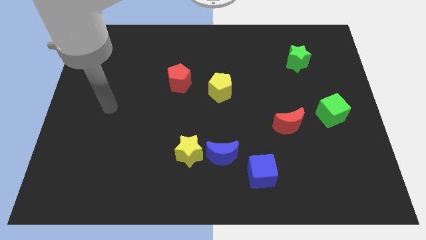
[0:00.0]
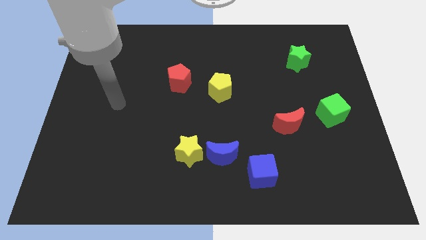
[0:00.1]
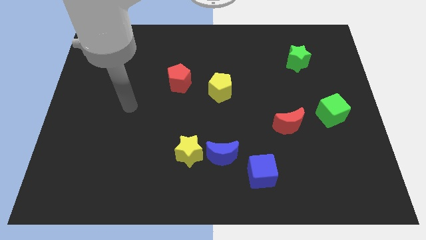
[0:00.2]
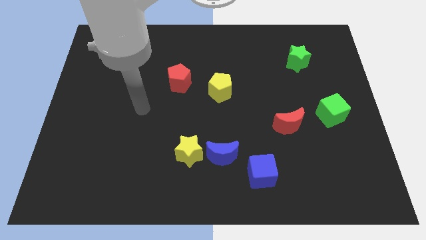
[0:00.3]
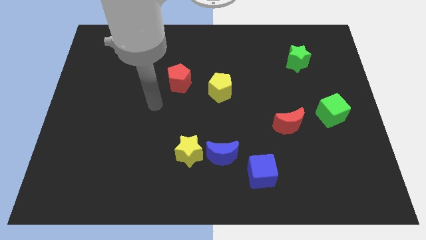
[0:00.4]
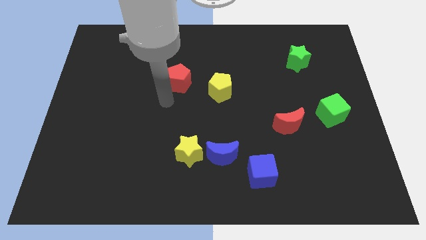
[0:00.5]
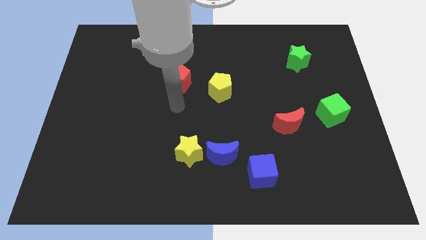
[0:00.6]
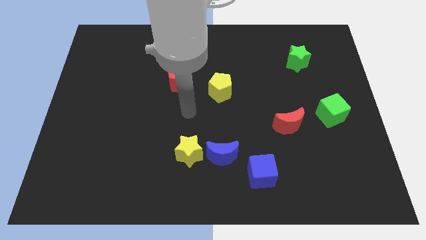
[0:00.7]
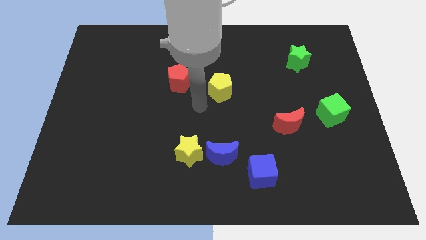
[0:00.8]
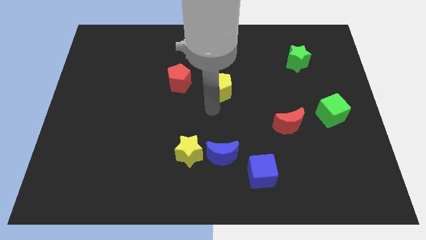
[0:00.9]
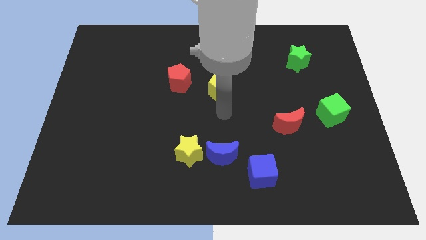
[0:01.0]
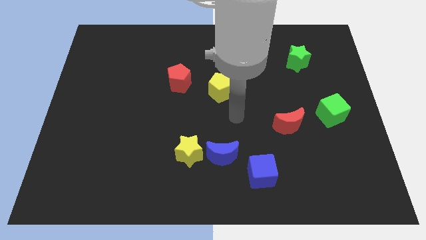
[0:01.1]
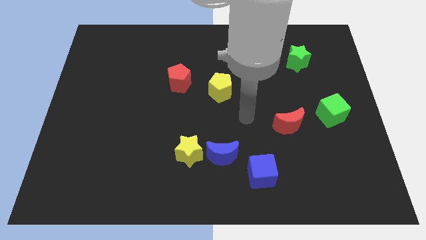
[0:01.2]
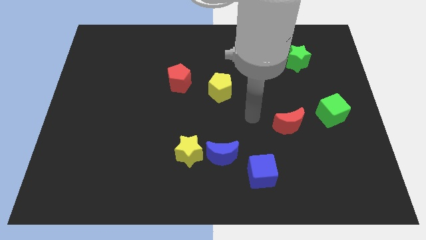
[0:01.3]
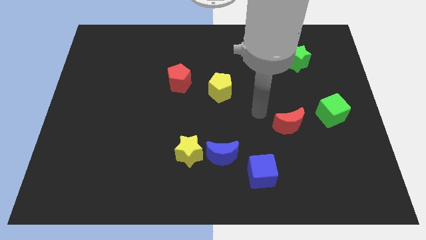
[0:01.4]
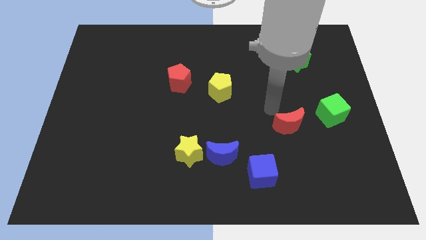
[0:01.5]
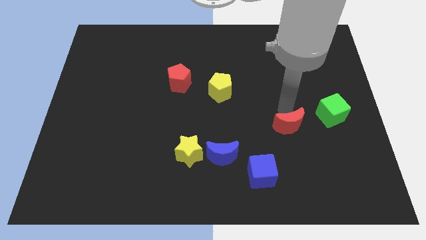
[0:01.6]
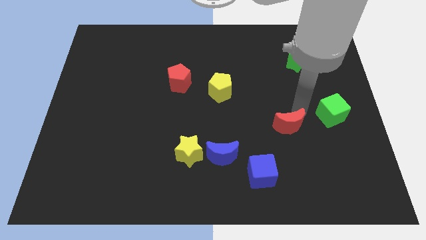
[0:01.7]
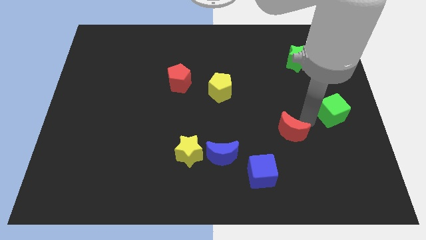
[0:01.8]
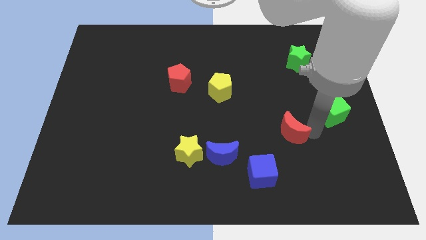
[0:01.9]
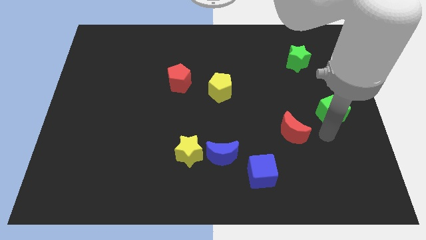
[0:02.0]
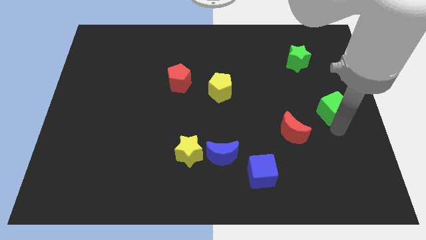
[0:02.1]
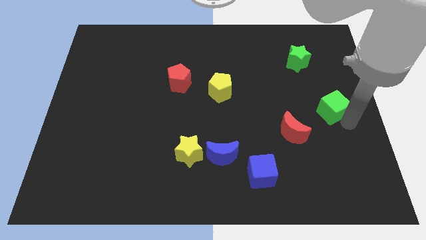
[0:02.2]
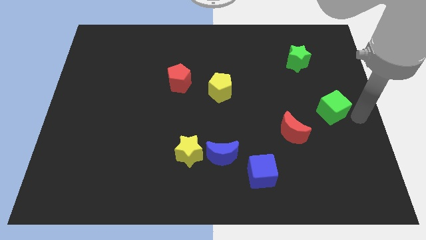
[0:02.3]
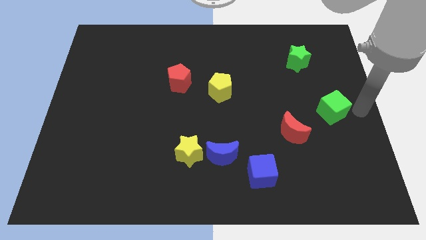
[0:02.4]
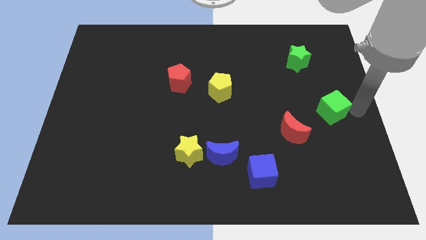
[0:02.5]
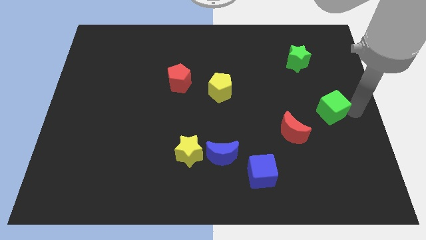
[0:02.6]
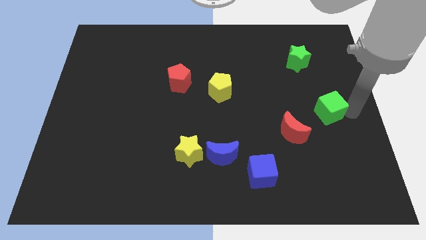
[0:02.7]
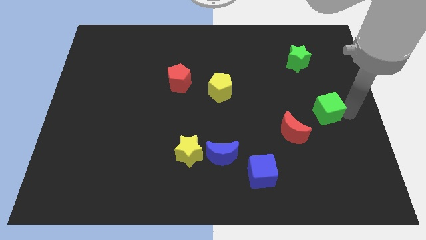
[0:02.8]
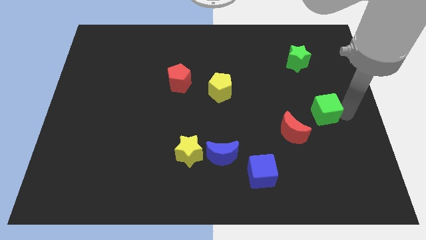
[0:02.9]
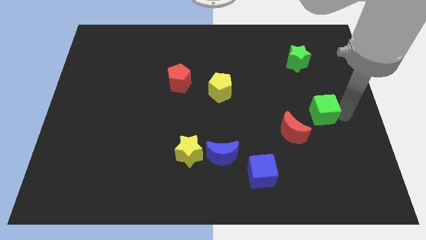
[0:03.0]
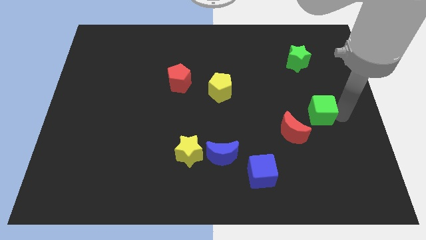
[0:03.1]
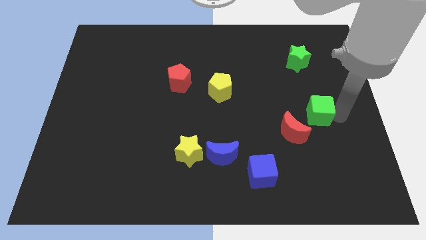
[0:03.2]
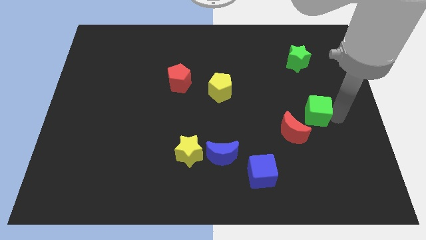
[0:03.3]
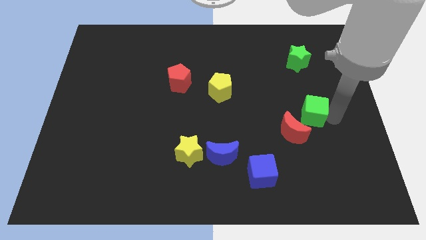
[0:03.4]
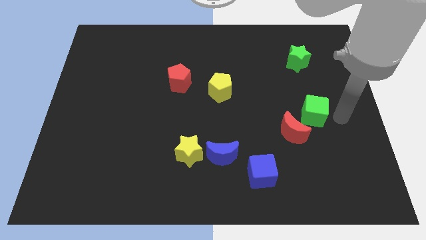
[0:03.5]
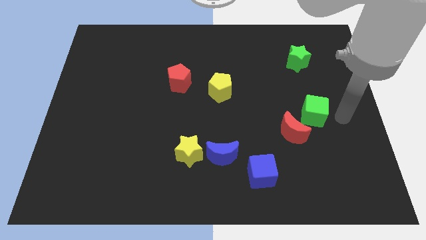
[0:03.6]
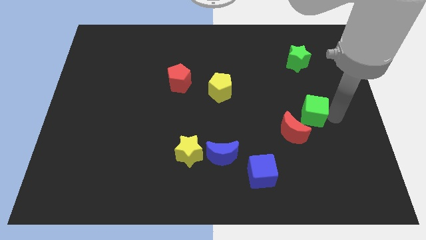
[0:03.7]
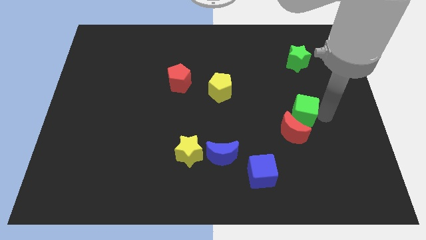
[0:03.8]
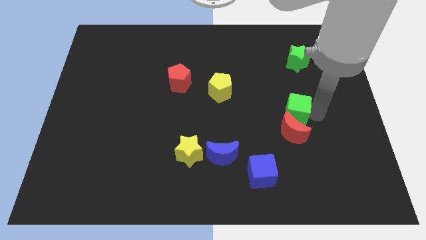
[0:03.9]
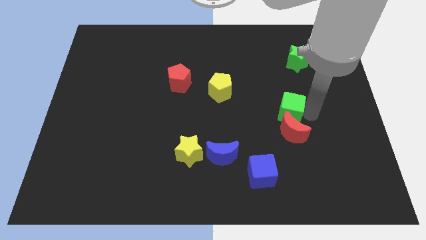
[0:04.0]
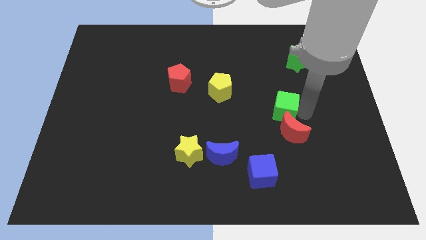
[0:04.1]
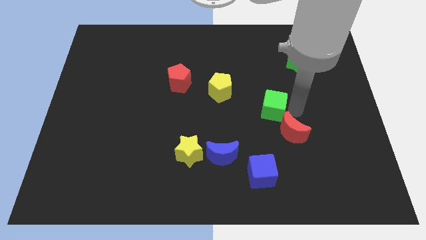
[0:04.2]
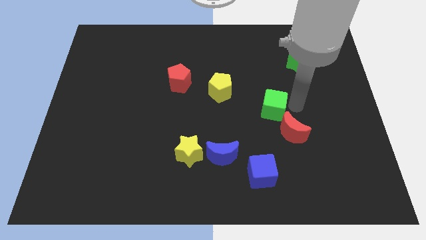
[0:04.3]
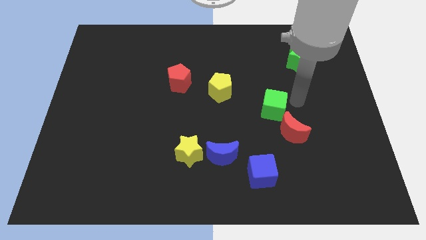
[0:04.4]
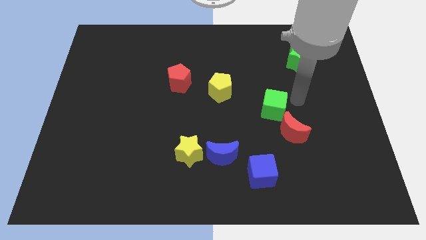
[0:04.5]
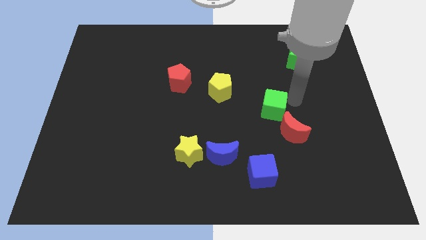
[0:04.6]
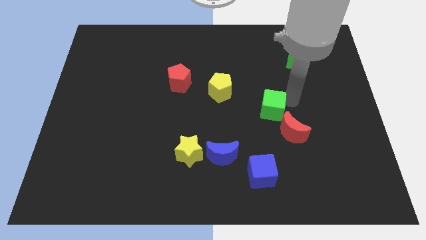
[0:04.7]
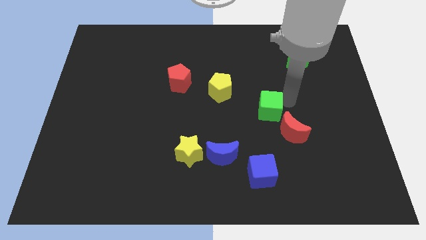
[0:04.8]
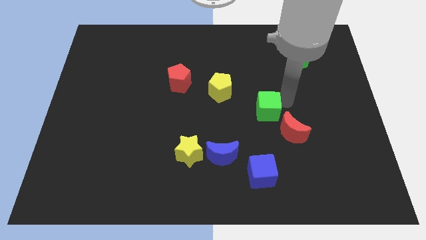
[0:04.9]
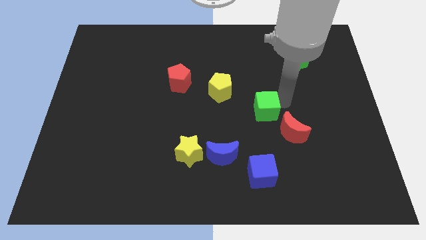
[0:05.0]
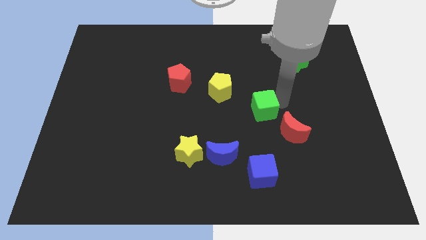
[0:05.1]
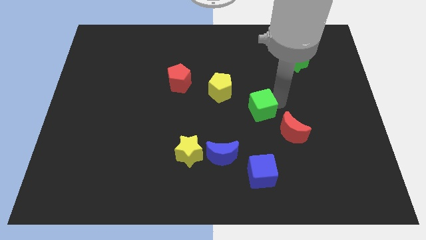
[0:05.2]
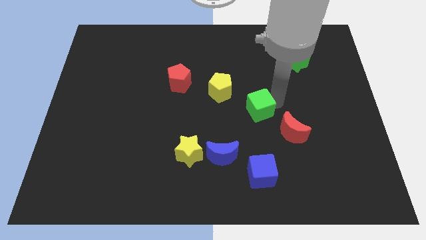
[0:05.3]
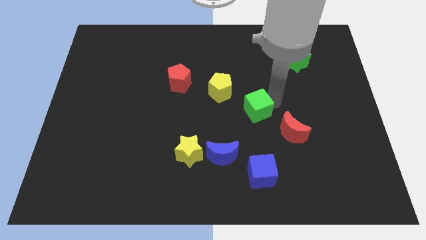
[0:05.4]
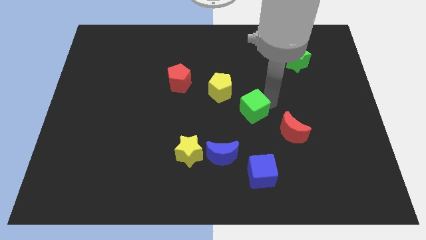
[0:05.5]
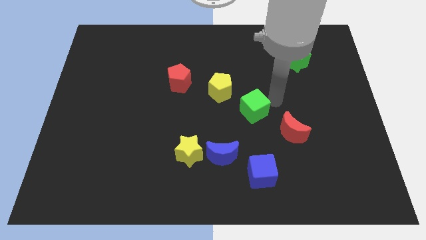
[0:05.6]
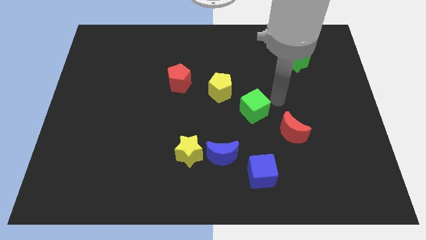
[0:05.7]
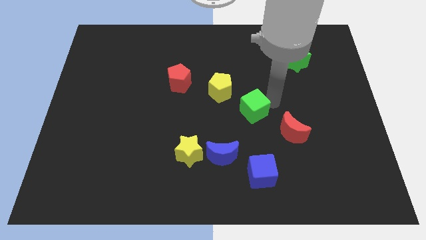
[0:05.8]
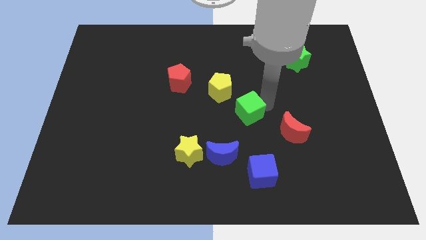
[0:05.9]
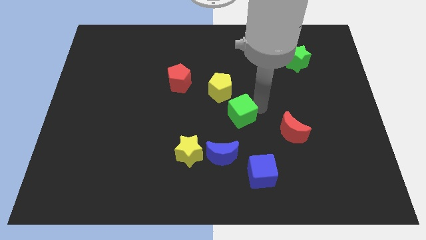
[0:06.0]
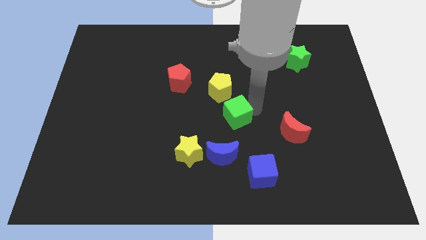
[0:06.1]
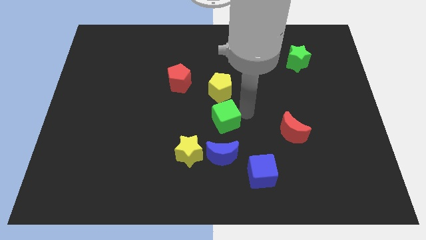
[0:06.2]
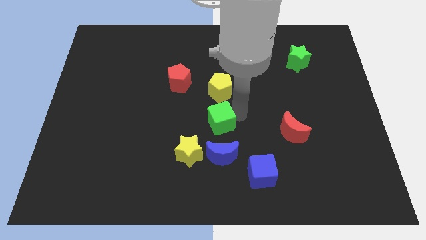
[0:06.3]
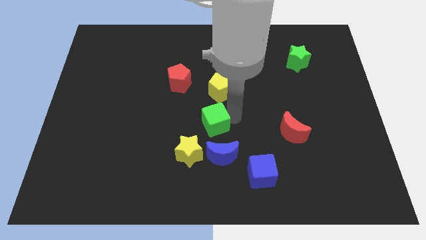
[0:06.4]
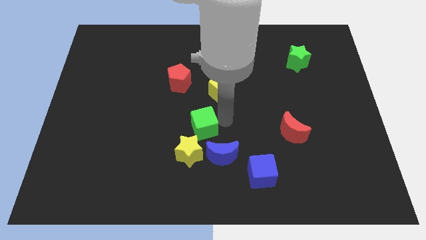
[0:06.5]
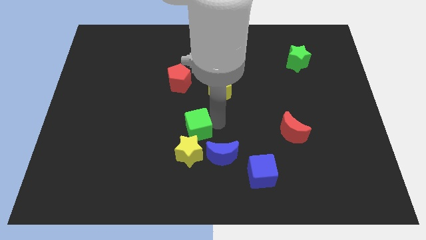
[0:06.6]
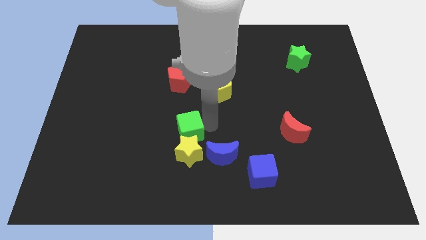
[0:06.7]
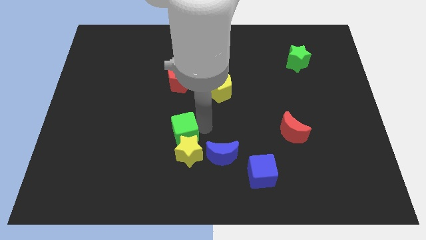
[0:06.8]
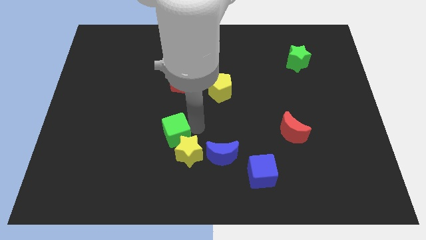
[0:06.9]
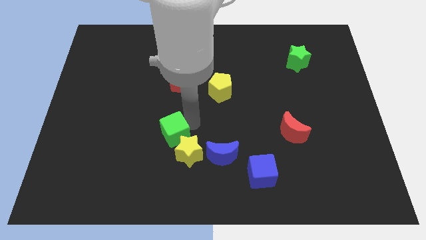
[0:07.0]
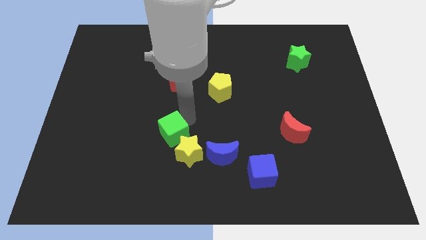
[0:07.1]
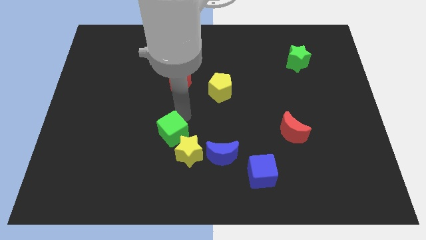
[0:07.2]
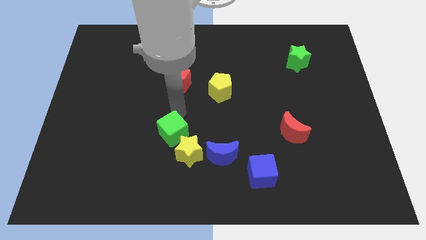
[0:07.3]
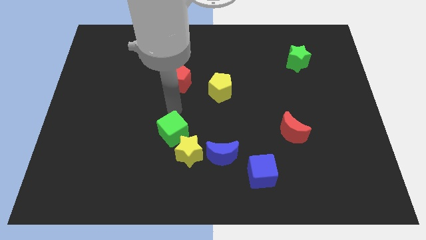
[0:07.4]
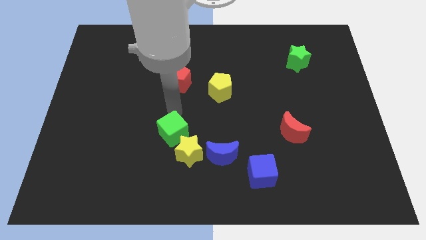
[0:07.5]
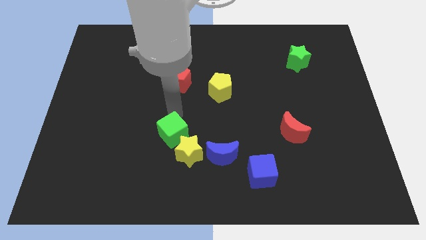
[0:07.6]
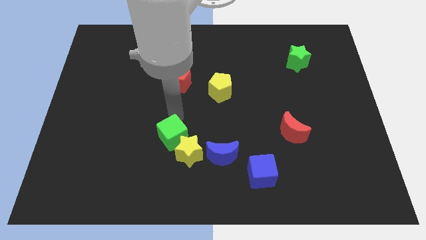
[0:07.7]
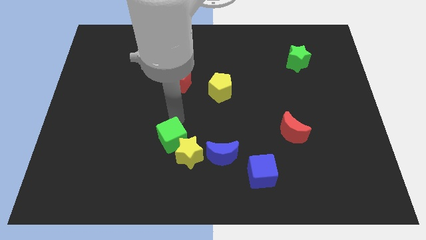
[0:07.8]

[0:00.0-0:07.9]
slide the green cube to the left of the blue moon
